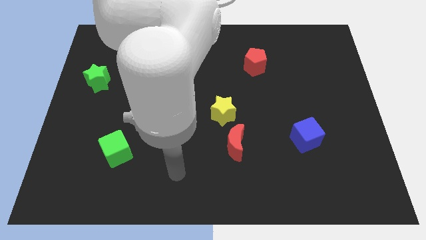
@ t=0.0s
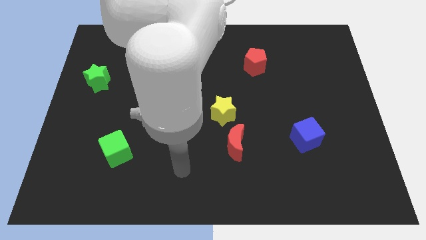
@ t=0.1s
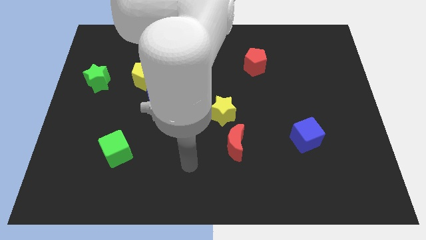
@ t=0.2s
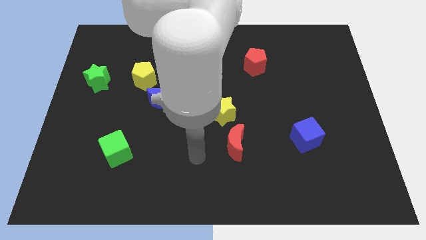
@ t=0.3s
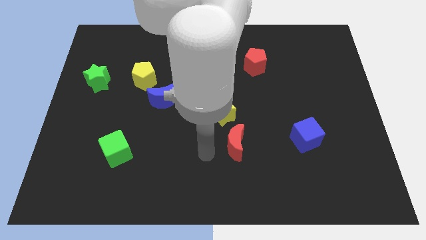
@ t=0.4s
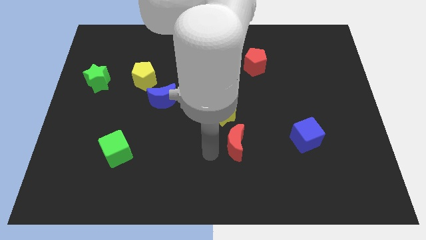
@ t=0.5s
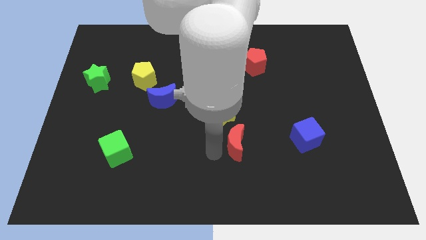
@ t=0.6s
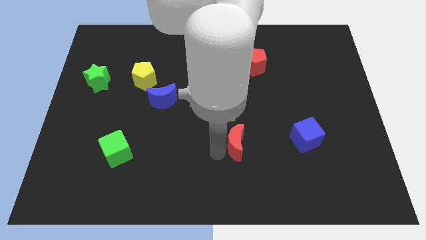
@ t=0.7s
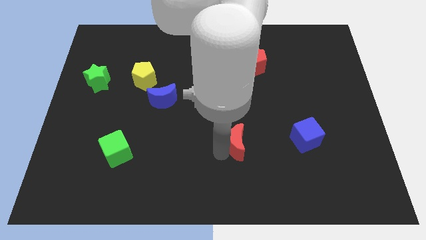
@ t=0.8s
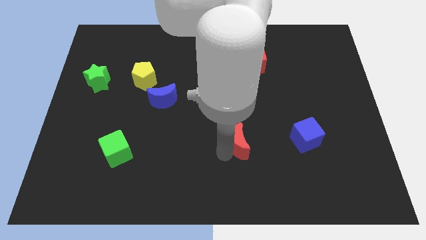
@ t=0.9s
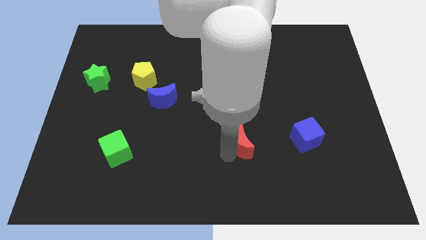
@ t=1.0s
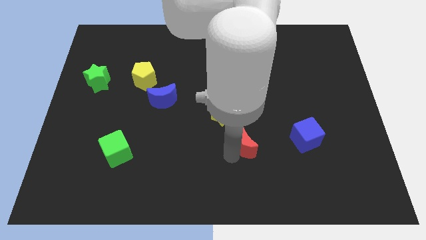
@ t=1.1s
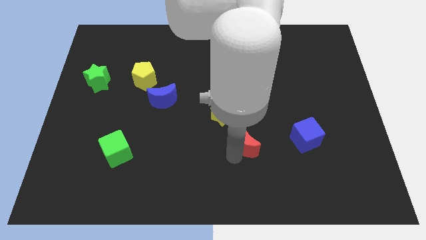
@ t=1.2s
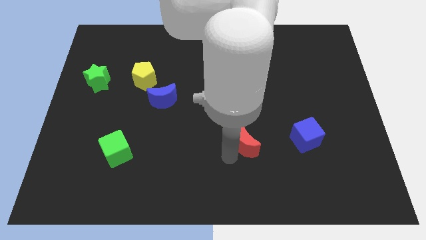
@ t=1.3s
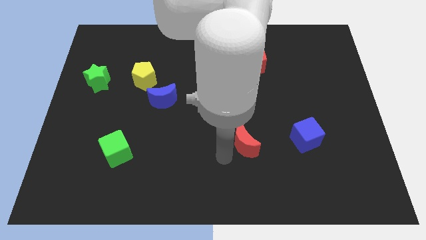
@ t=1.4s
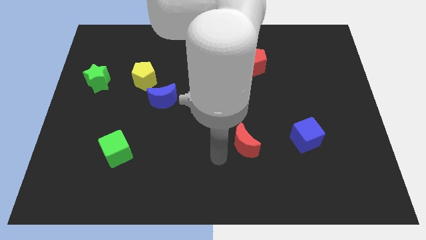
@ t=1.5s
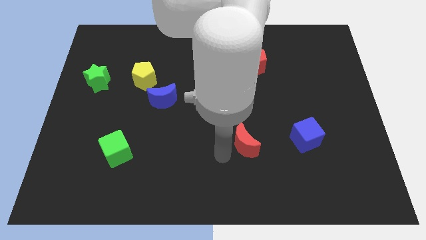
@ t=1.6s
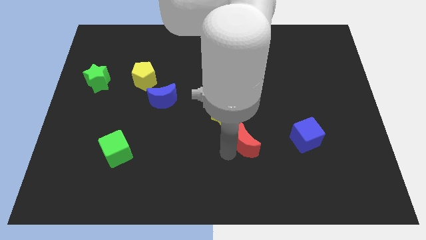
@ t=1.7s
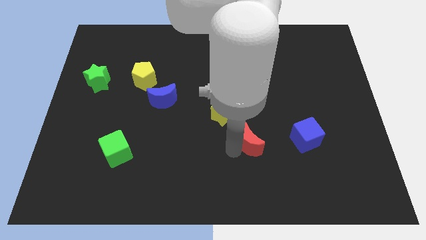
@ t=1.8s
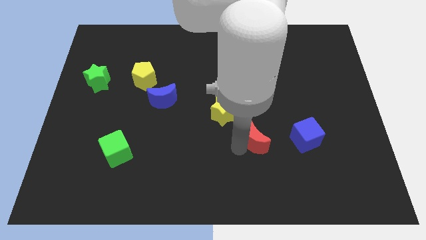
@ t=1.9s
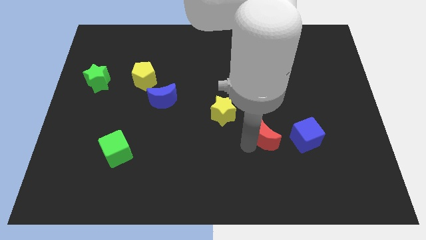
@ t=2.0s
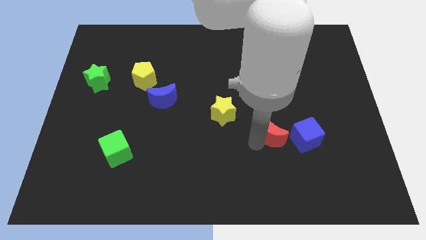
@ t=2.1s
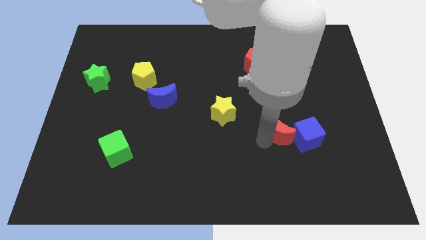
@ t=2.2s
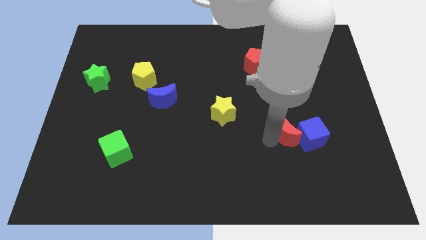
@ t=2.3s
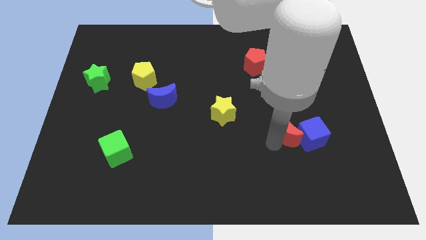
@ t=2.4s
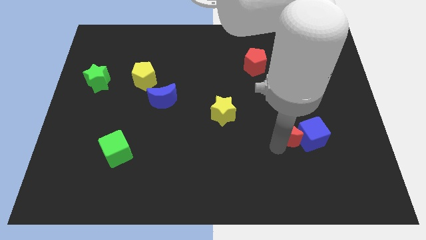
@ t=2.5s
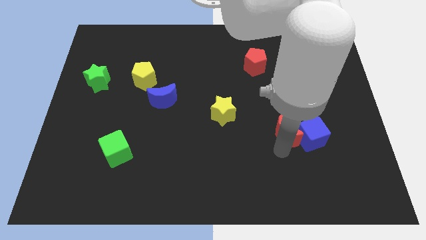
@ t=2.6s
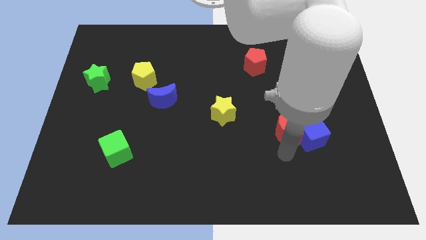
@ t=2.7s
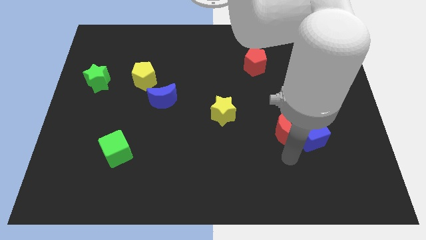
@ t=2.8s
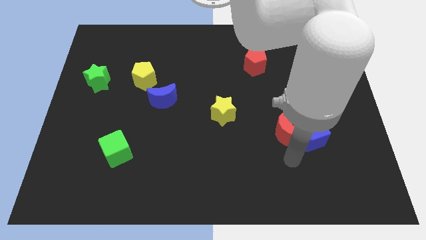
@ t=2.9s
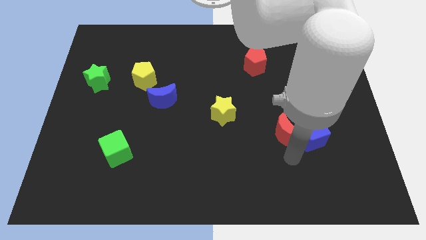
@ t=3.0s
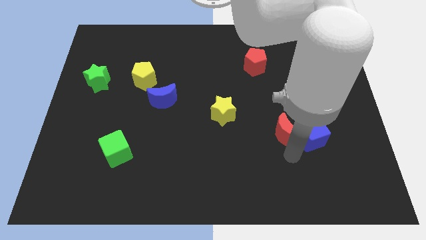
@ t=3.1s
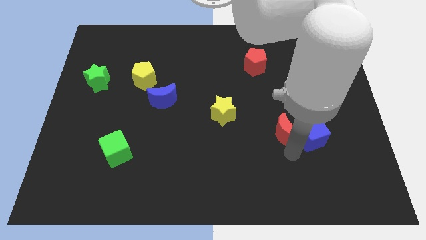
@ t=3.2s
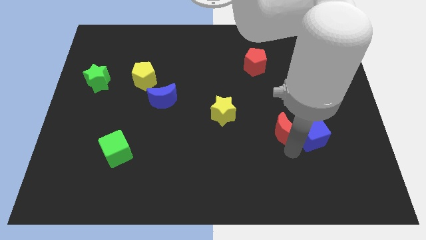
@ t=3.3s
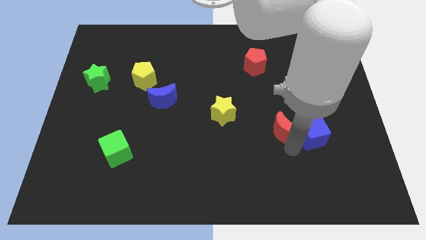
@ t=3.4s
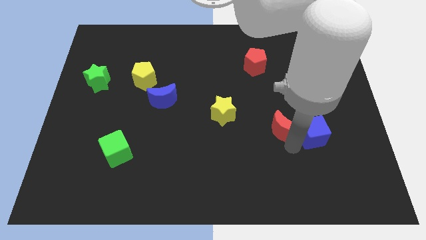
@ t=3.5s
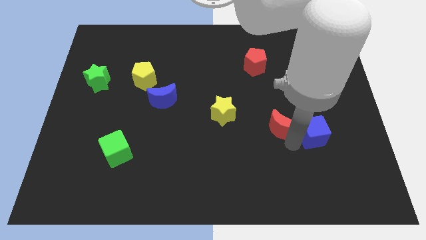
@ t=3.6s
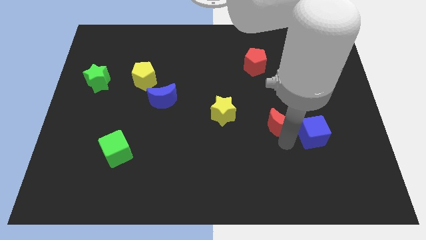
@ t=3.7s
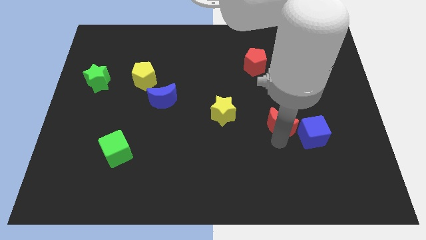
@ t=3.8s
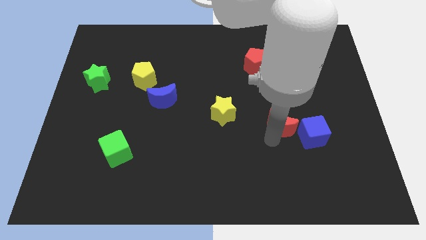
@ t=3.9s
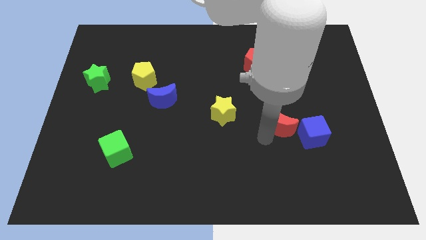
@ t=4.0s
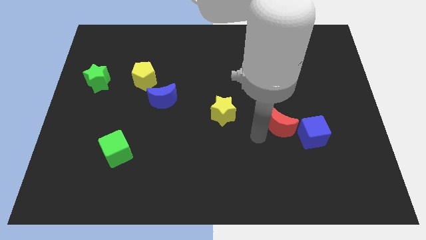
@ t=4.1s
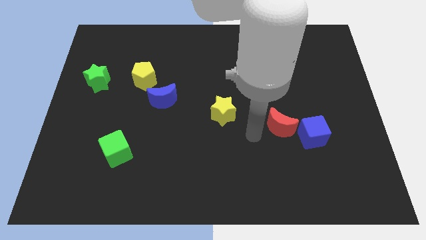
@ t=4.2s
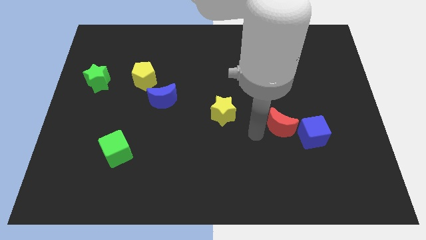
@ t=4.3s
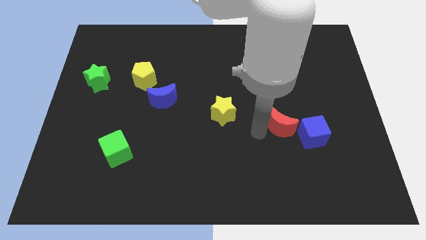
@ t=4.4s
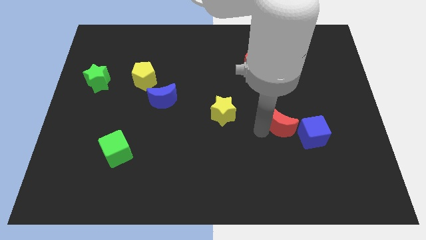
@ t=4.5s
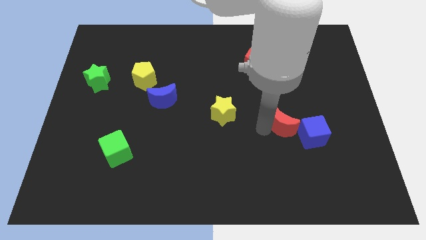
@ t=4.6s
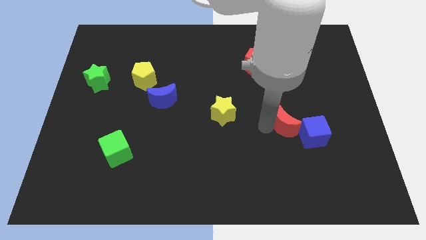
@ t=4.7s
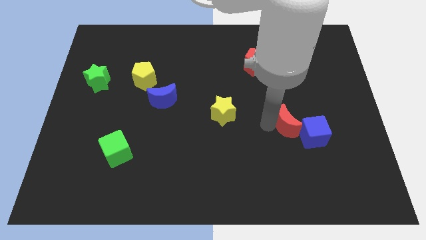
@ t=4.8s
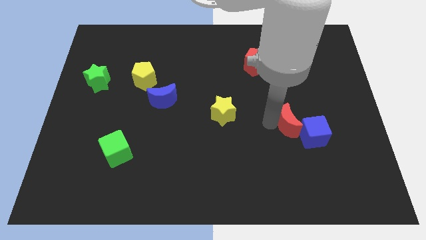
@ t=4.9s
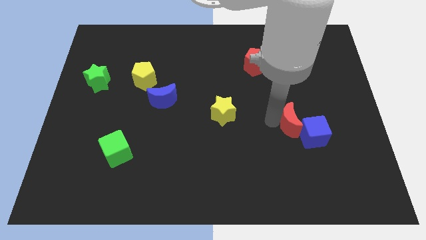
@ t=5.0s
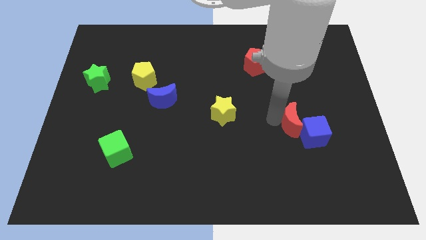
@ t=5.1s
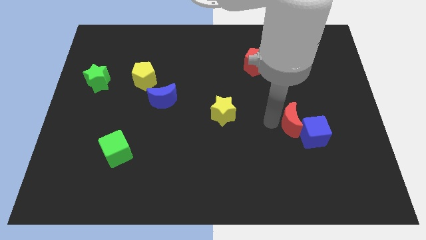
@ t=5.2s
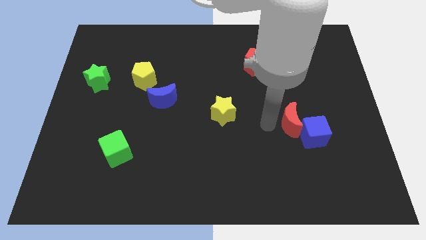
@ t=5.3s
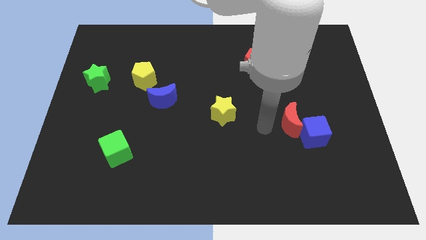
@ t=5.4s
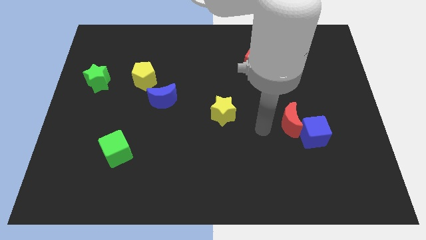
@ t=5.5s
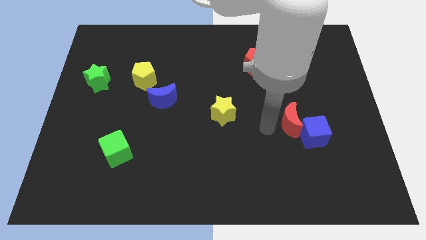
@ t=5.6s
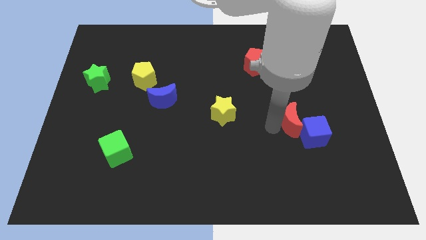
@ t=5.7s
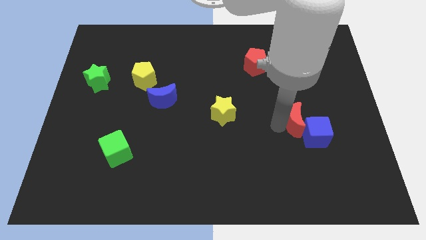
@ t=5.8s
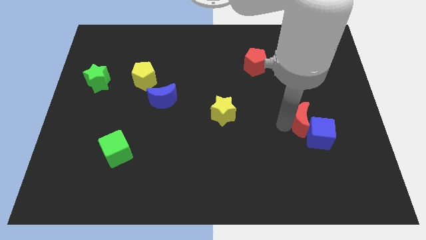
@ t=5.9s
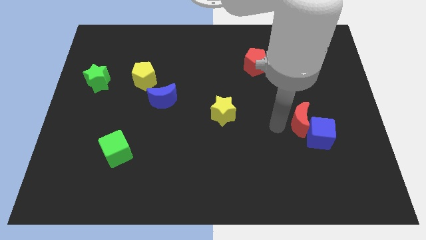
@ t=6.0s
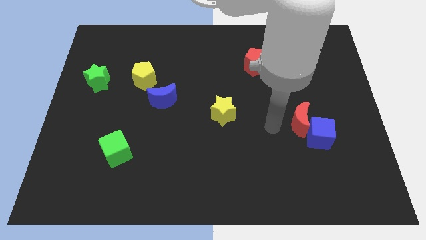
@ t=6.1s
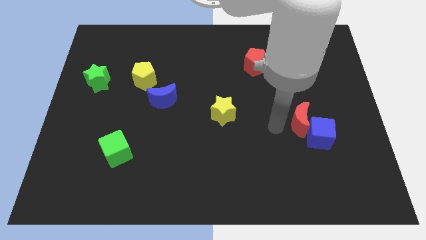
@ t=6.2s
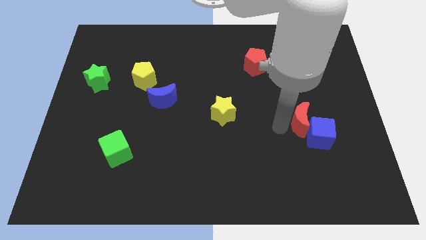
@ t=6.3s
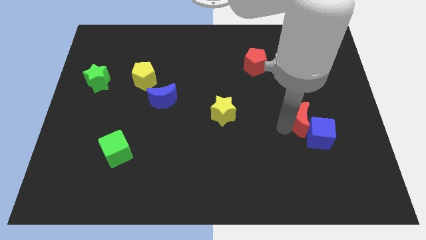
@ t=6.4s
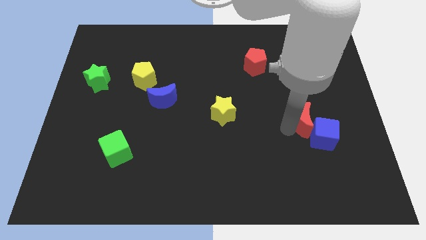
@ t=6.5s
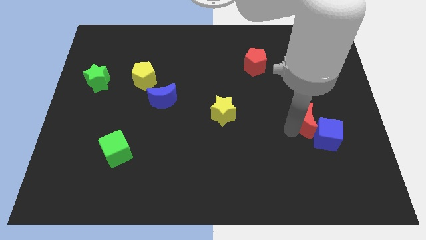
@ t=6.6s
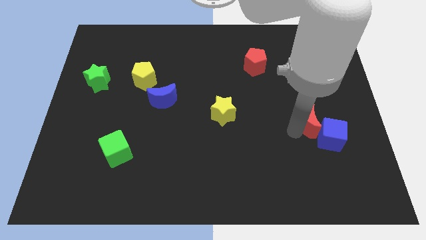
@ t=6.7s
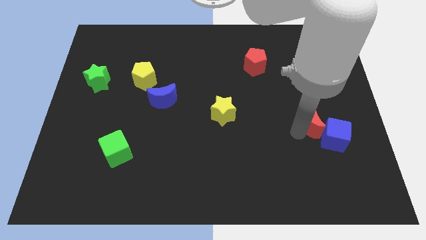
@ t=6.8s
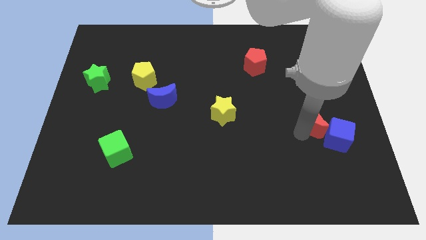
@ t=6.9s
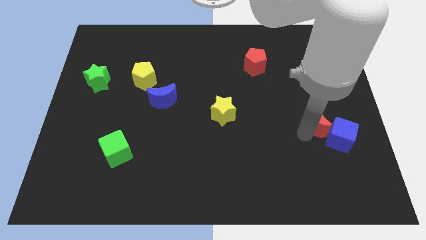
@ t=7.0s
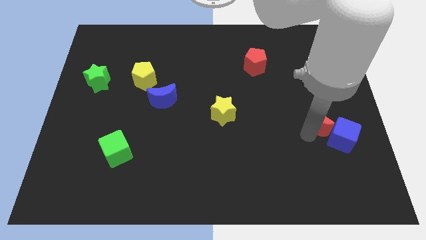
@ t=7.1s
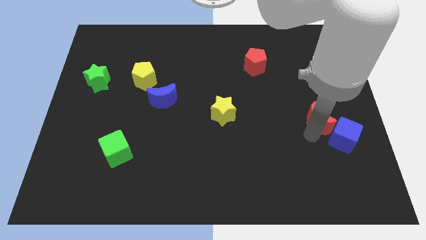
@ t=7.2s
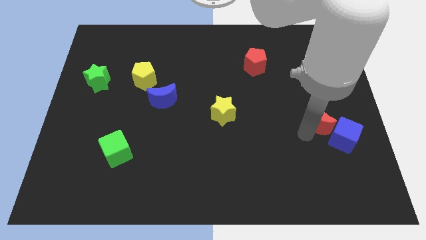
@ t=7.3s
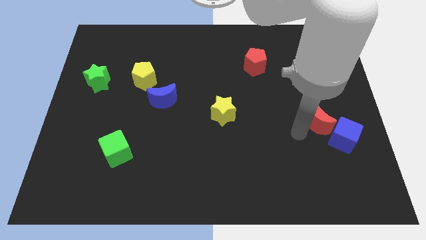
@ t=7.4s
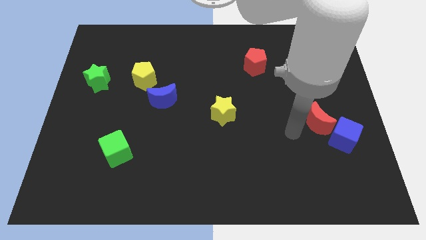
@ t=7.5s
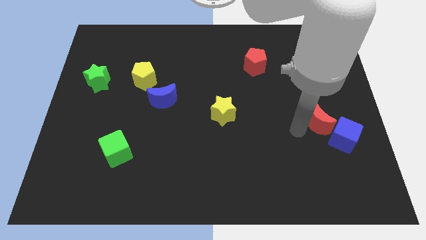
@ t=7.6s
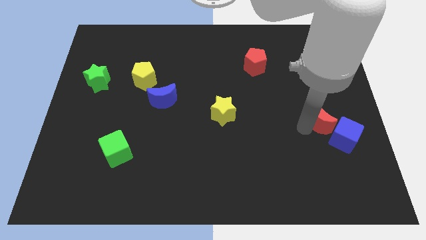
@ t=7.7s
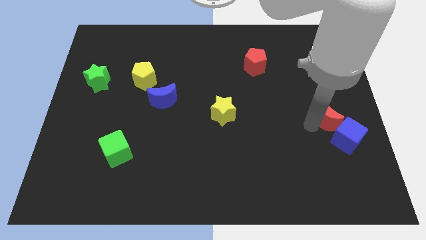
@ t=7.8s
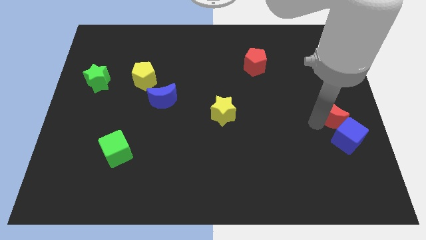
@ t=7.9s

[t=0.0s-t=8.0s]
move the red moon to the right side of the board
